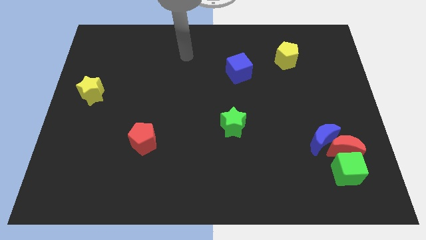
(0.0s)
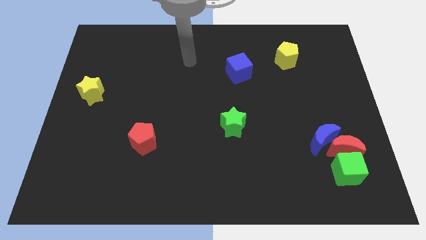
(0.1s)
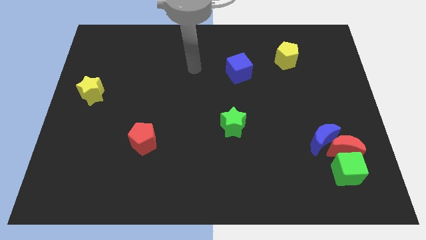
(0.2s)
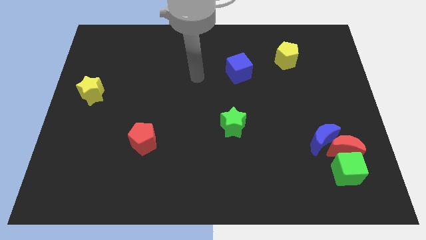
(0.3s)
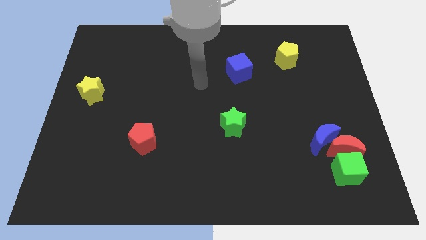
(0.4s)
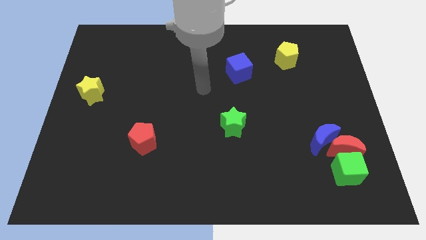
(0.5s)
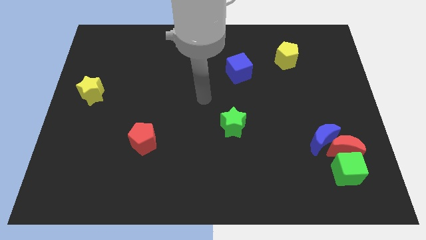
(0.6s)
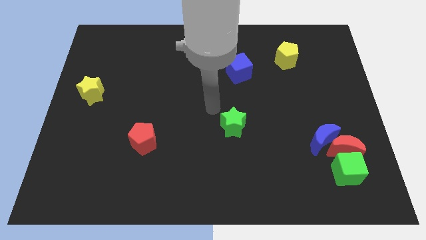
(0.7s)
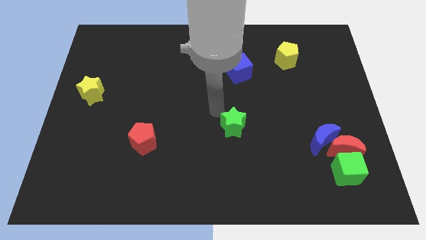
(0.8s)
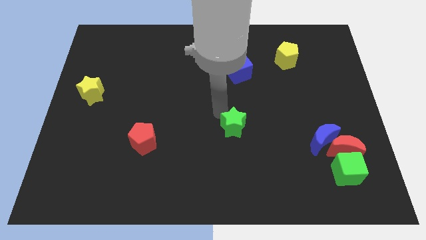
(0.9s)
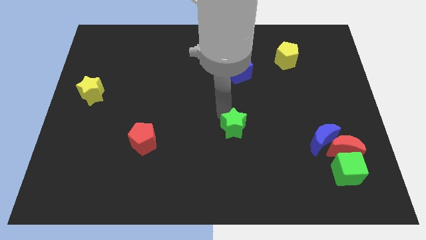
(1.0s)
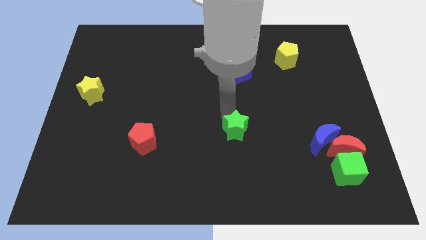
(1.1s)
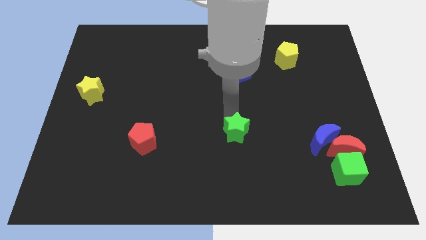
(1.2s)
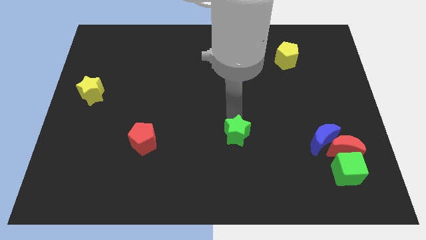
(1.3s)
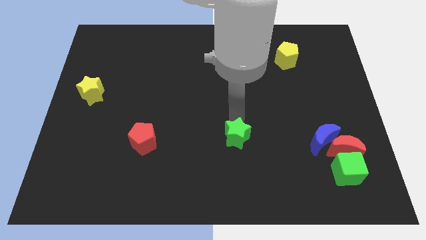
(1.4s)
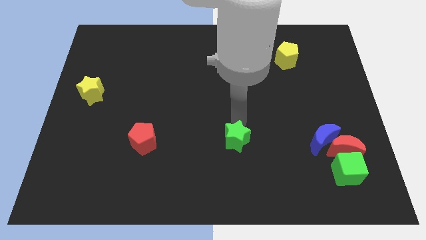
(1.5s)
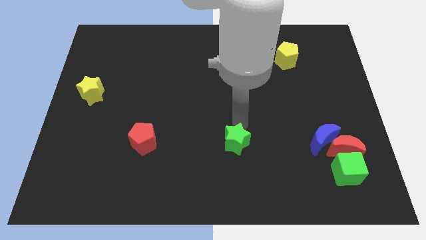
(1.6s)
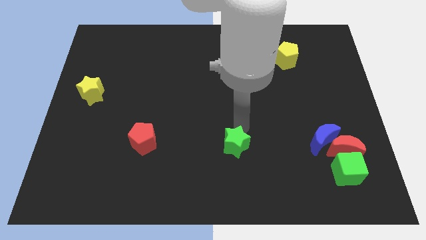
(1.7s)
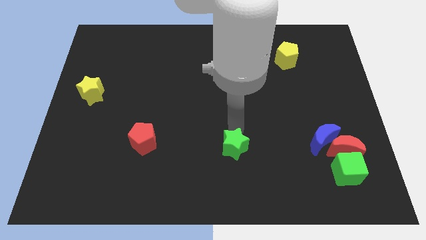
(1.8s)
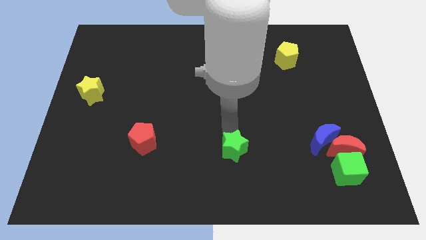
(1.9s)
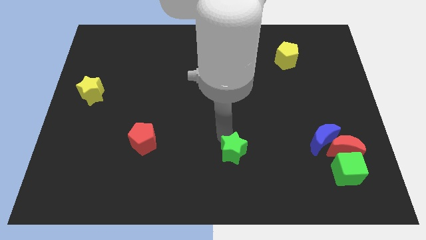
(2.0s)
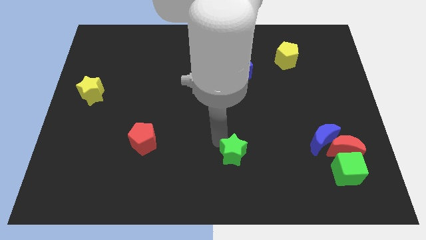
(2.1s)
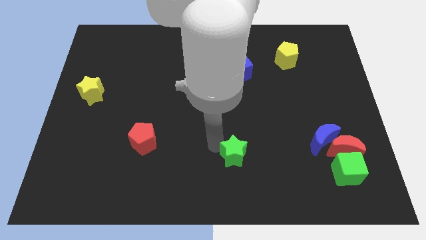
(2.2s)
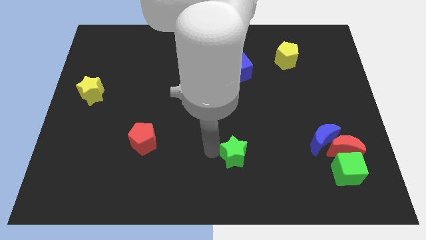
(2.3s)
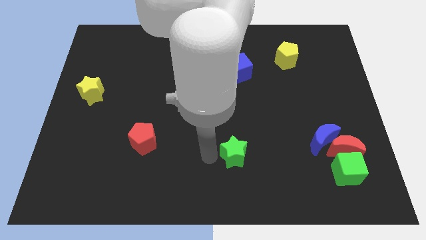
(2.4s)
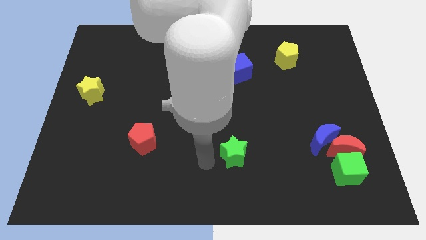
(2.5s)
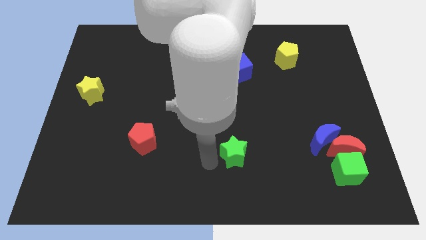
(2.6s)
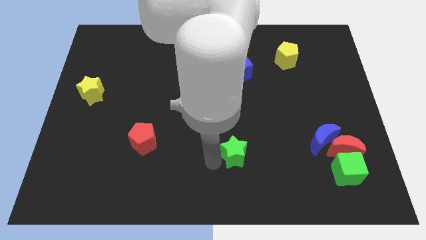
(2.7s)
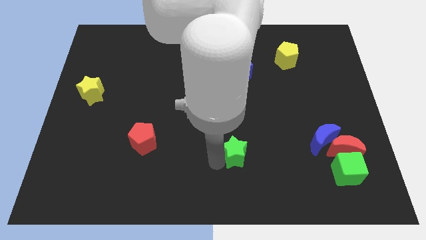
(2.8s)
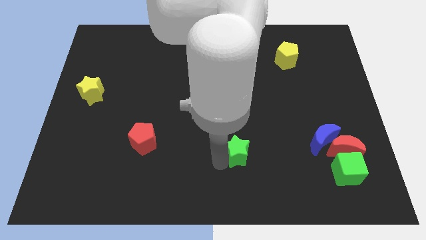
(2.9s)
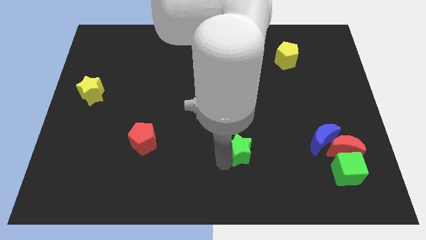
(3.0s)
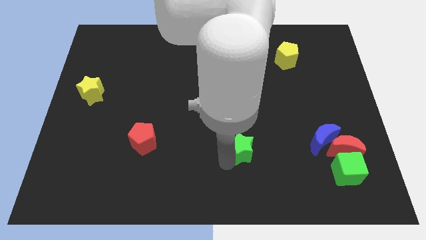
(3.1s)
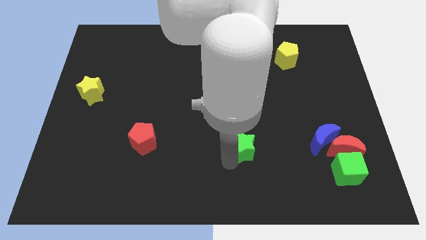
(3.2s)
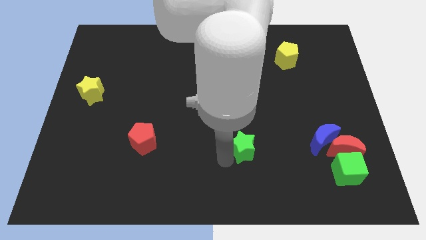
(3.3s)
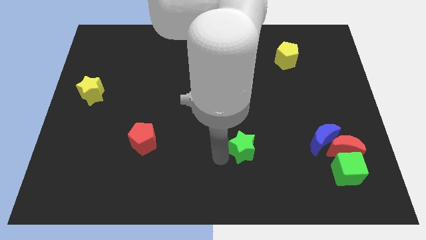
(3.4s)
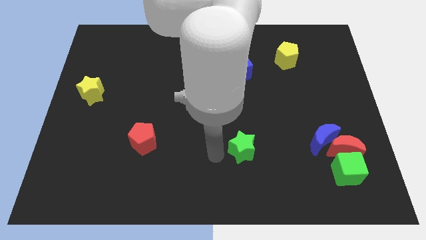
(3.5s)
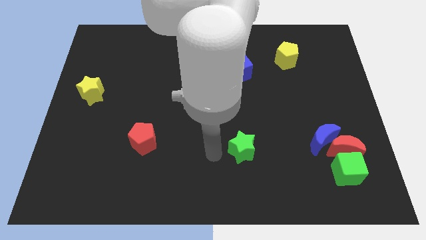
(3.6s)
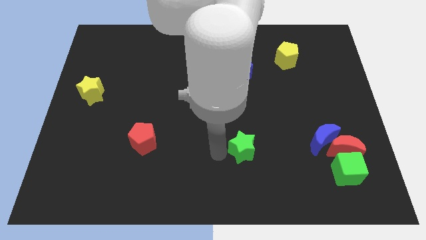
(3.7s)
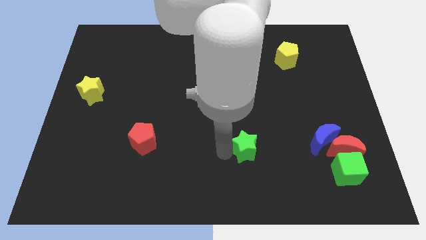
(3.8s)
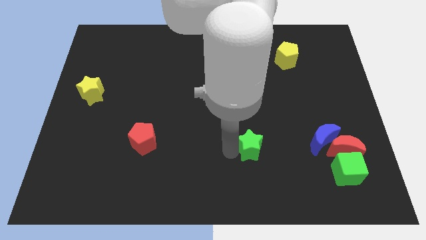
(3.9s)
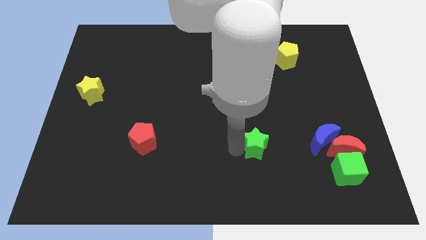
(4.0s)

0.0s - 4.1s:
push the green star somewhat downwards and then right

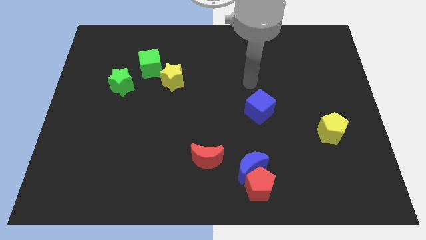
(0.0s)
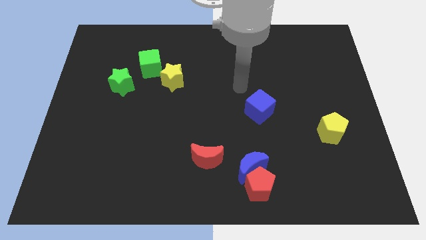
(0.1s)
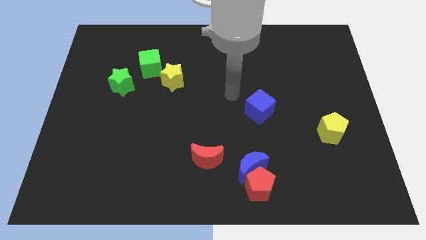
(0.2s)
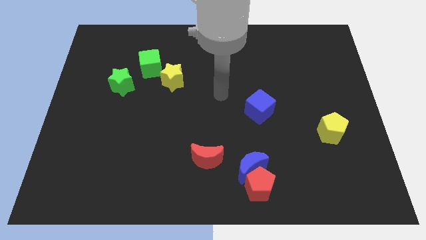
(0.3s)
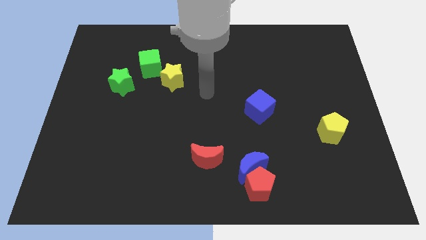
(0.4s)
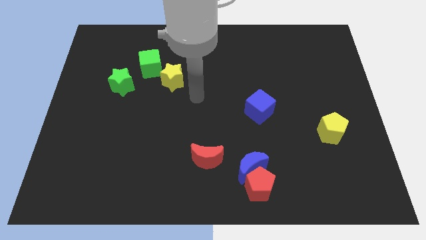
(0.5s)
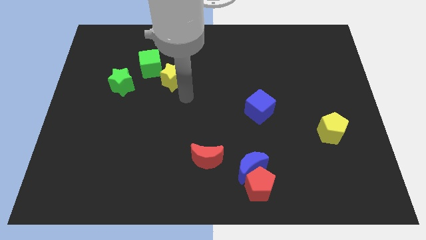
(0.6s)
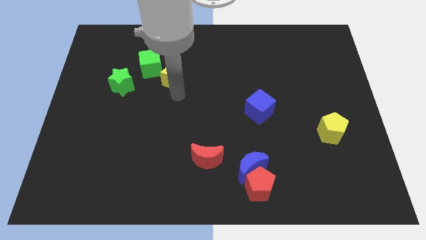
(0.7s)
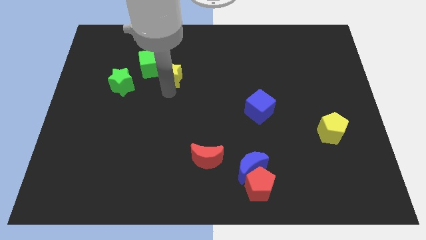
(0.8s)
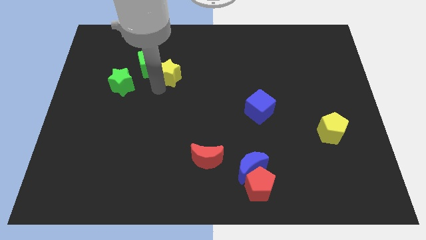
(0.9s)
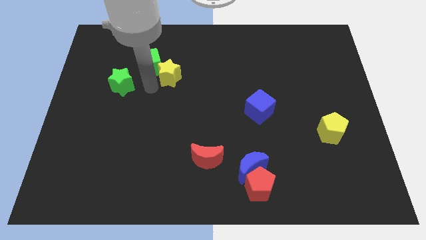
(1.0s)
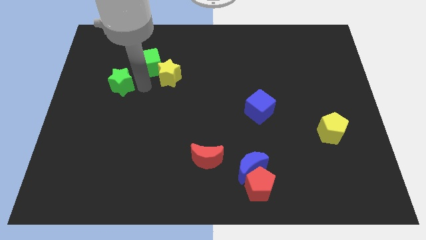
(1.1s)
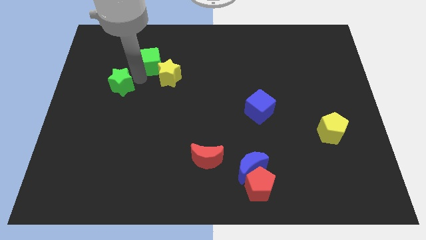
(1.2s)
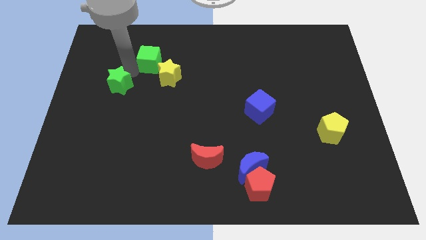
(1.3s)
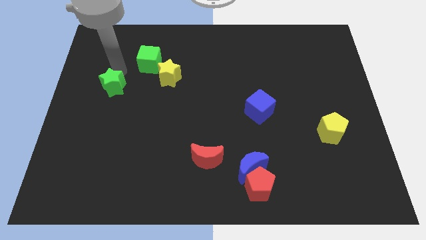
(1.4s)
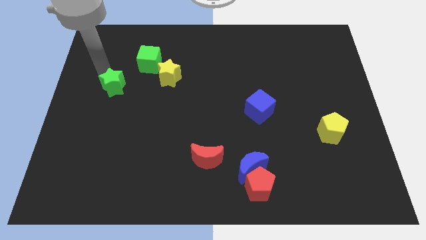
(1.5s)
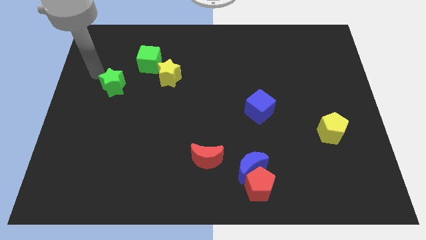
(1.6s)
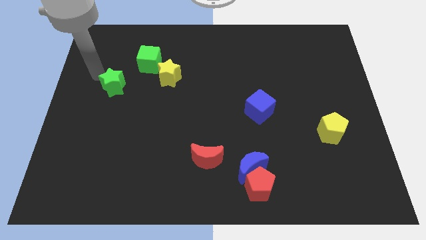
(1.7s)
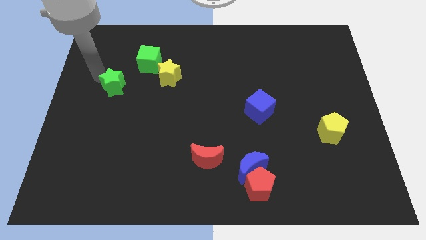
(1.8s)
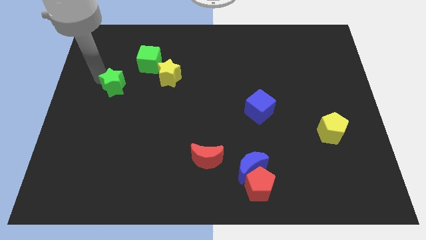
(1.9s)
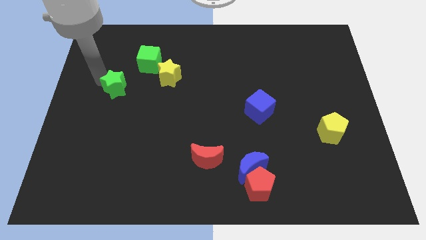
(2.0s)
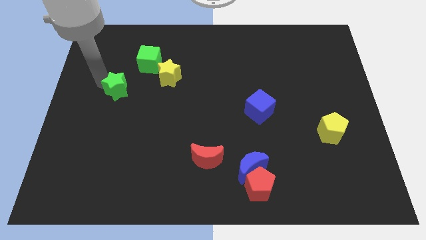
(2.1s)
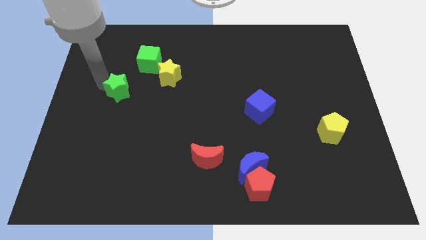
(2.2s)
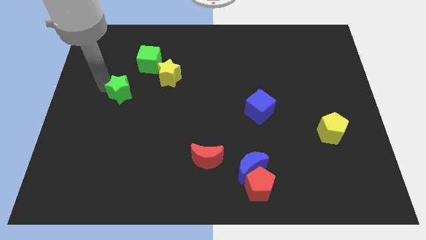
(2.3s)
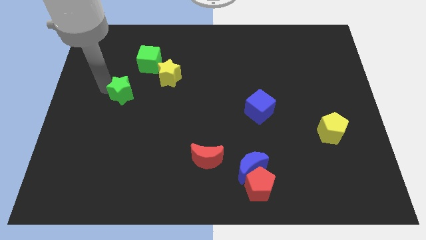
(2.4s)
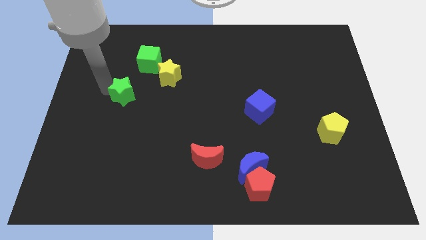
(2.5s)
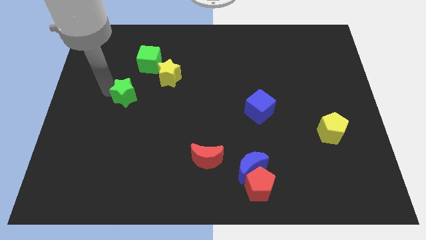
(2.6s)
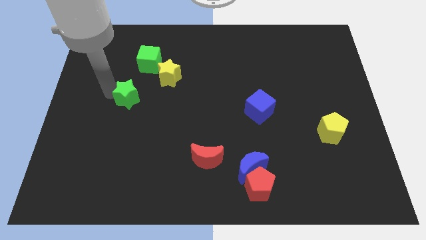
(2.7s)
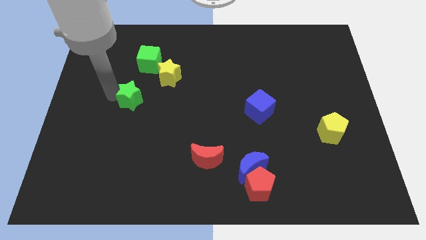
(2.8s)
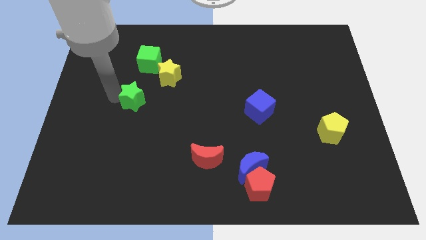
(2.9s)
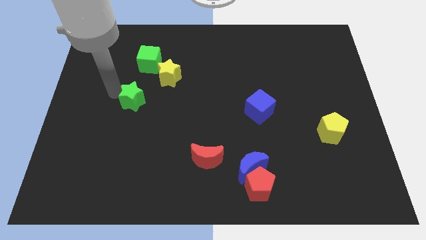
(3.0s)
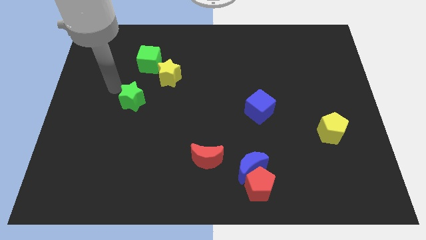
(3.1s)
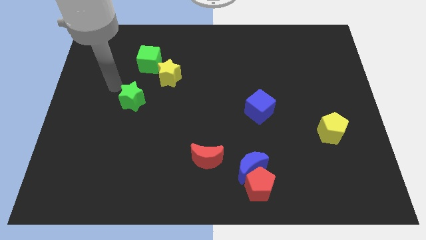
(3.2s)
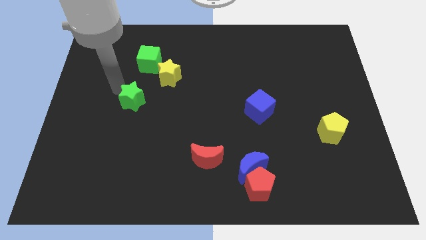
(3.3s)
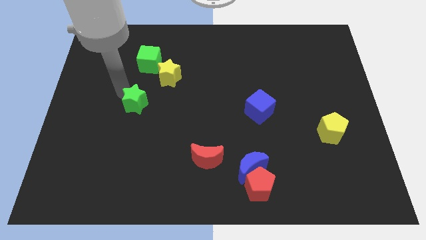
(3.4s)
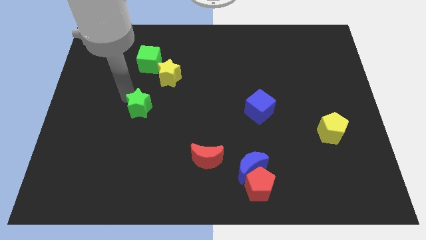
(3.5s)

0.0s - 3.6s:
slightly move the green star downwards and then to the right

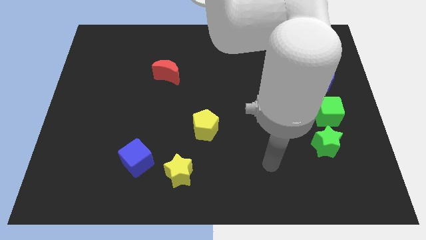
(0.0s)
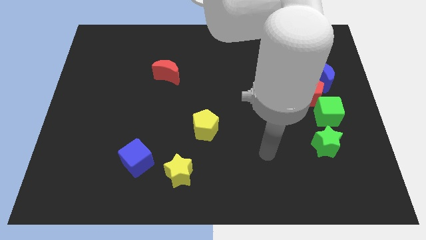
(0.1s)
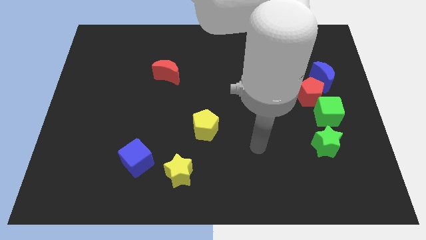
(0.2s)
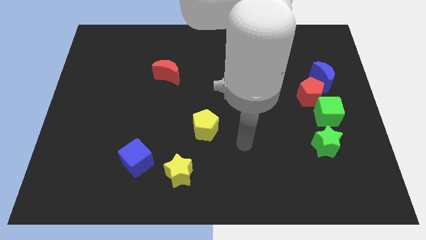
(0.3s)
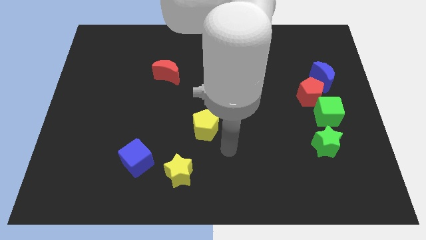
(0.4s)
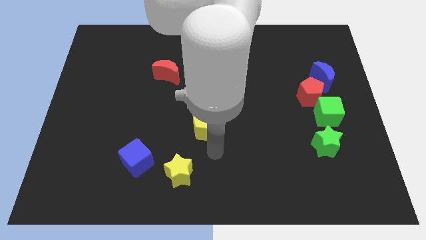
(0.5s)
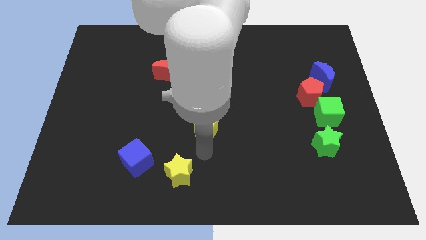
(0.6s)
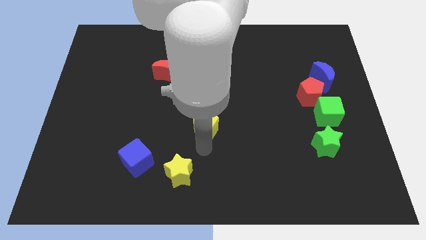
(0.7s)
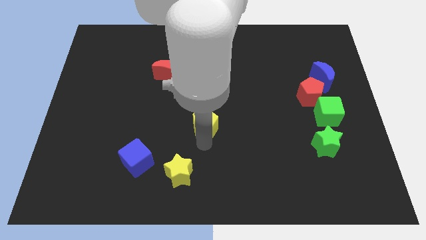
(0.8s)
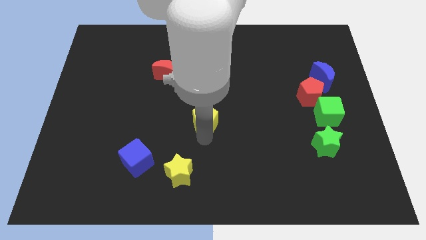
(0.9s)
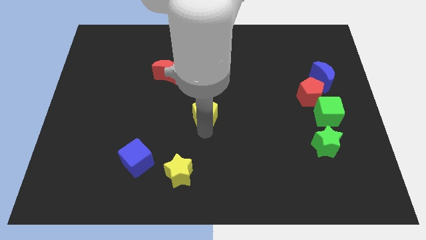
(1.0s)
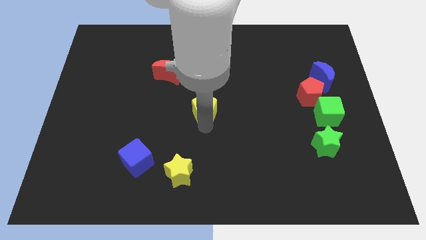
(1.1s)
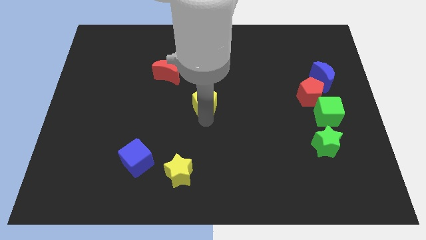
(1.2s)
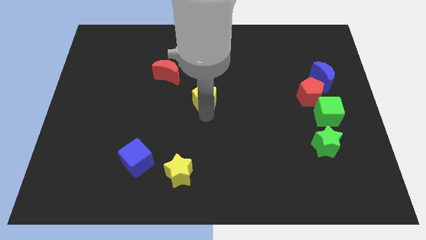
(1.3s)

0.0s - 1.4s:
slightly move the yellow pentagon up
